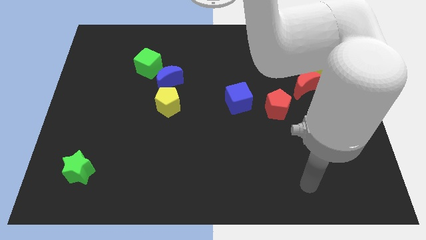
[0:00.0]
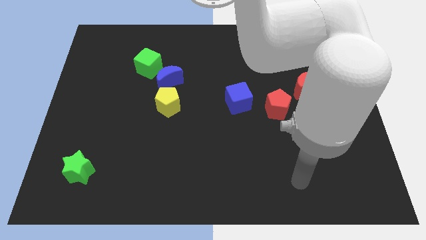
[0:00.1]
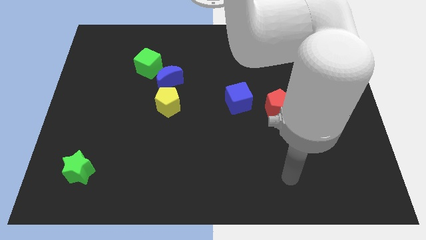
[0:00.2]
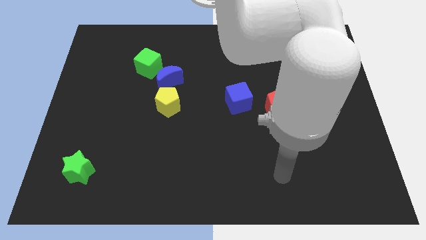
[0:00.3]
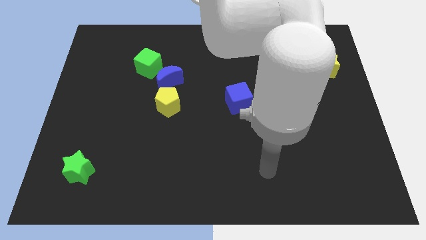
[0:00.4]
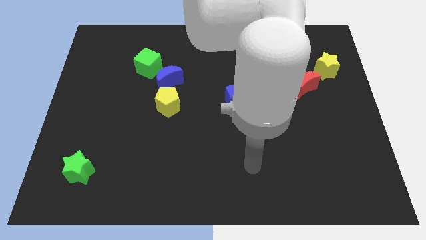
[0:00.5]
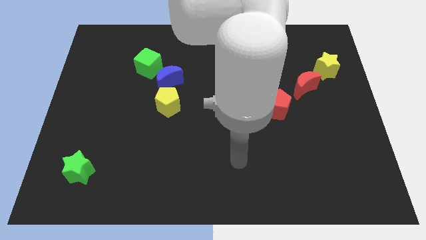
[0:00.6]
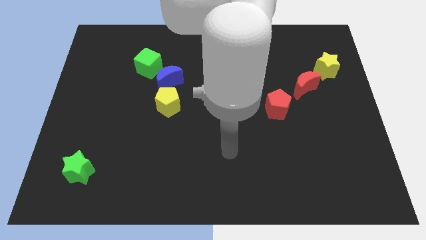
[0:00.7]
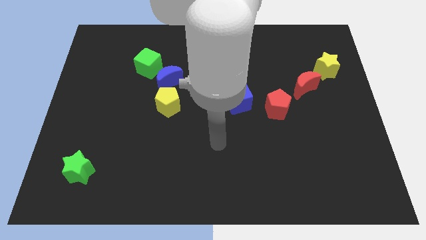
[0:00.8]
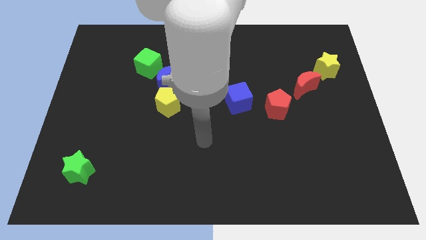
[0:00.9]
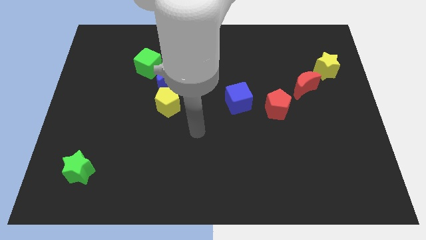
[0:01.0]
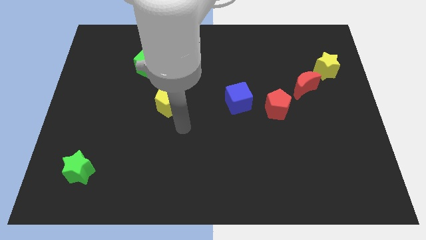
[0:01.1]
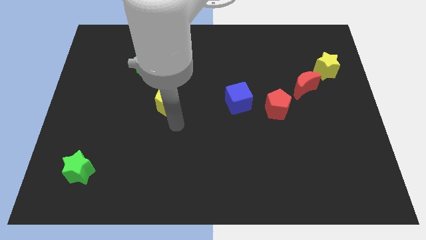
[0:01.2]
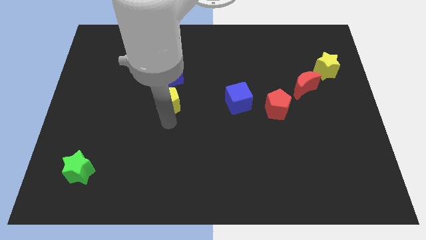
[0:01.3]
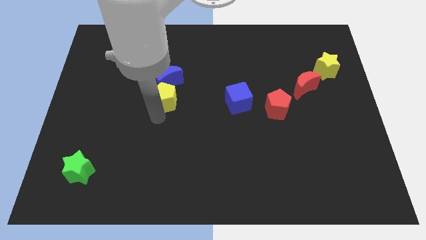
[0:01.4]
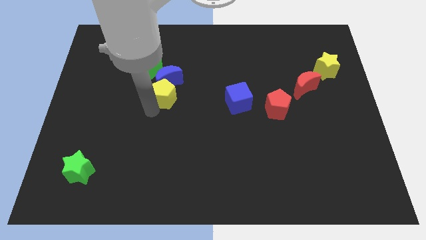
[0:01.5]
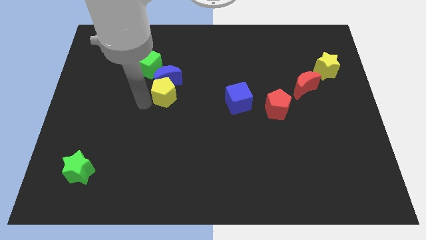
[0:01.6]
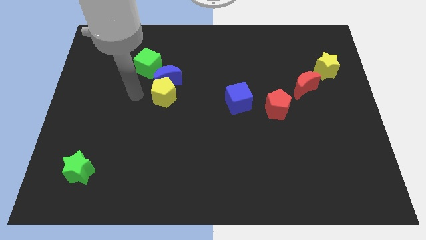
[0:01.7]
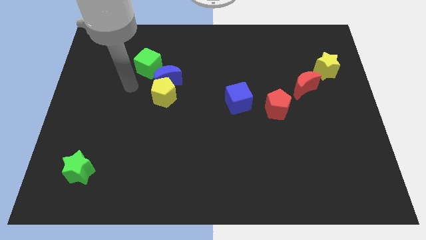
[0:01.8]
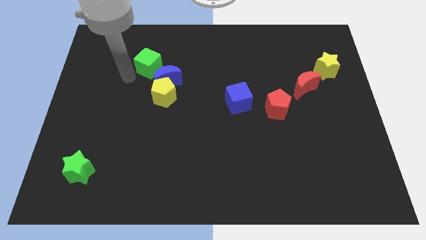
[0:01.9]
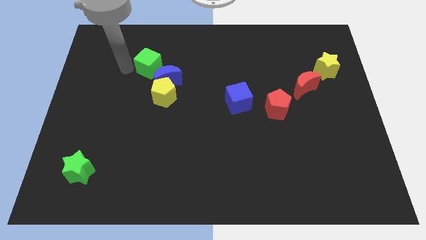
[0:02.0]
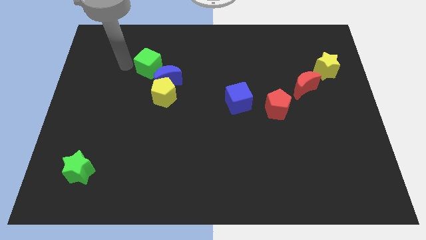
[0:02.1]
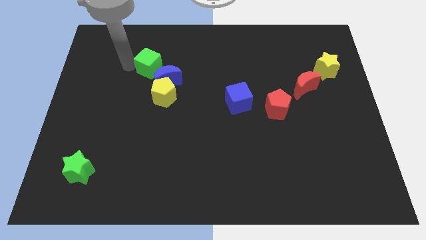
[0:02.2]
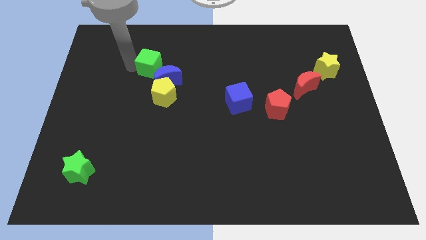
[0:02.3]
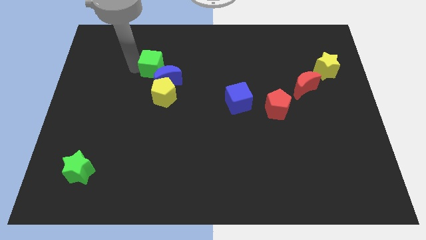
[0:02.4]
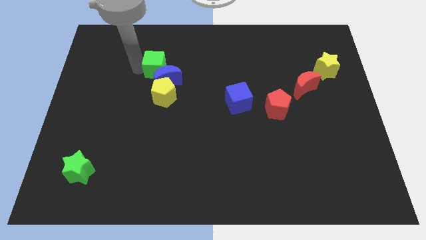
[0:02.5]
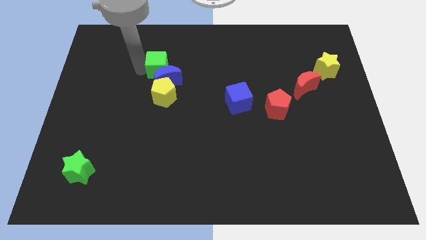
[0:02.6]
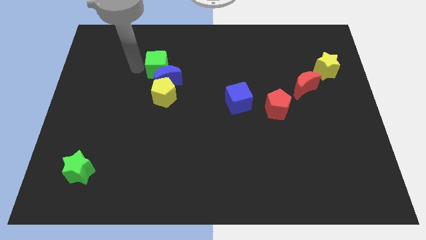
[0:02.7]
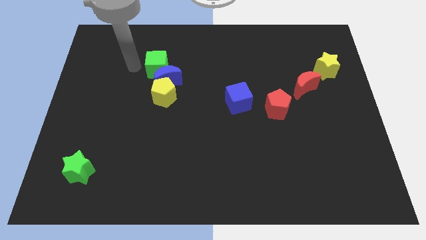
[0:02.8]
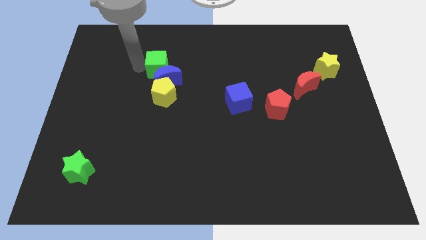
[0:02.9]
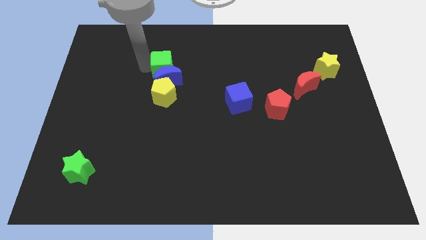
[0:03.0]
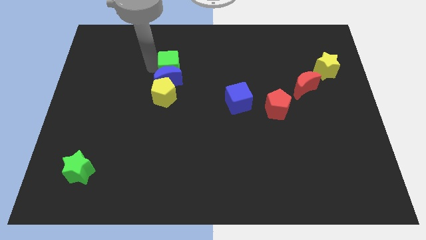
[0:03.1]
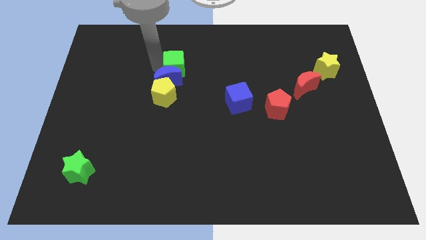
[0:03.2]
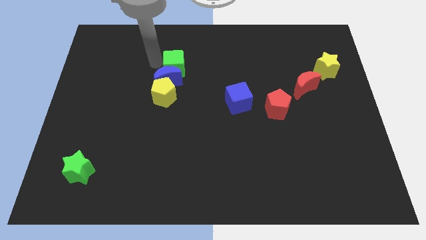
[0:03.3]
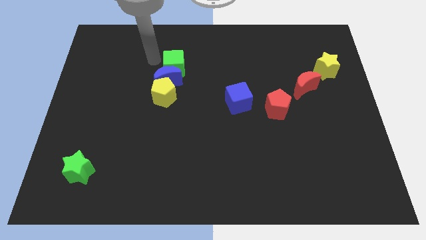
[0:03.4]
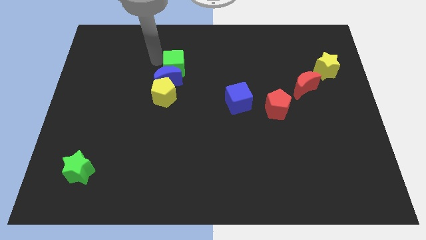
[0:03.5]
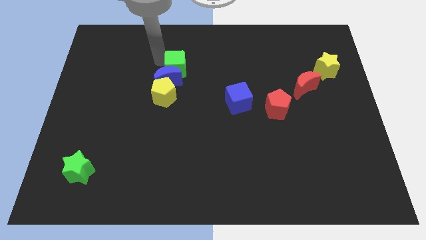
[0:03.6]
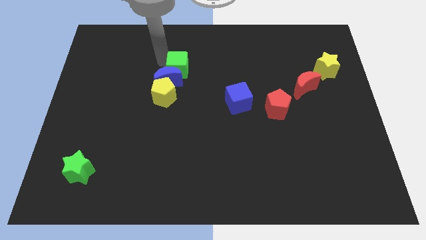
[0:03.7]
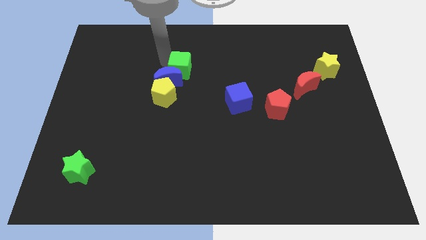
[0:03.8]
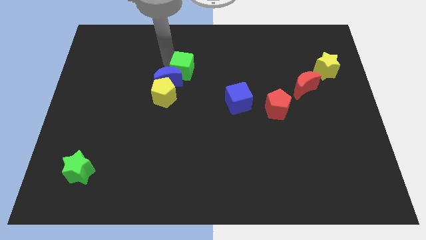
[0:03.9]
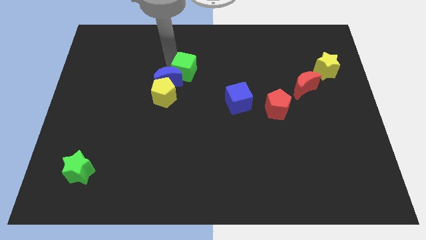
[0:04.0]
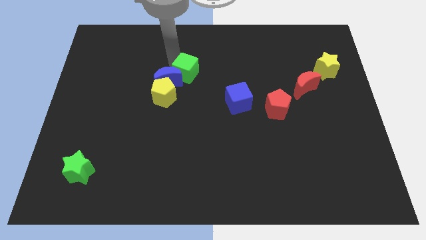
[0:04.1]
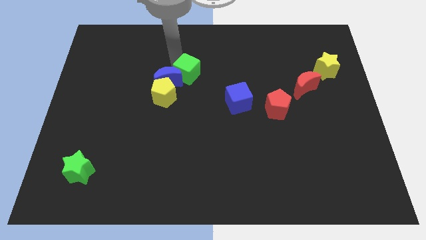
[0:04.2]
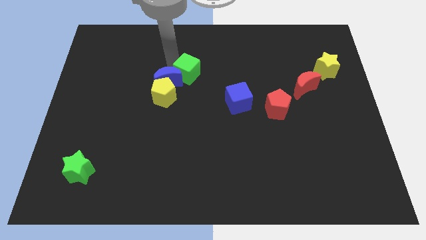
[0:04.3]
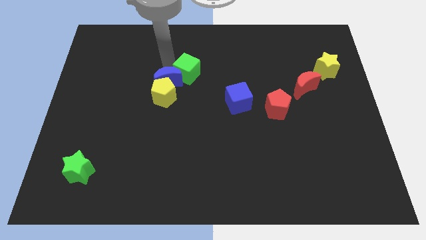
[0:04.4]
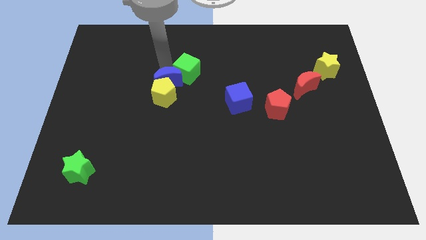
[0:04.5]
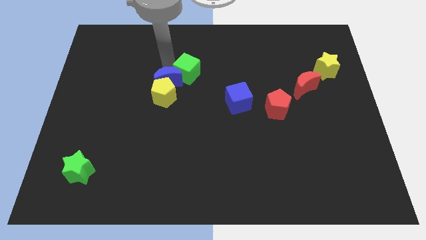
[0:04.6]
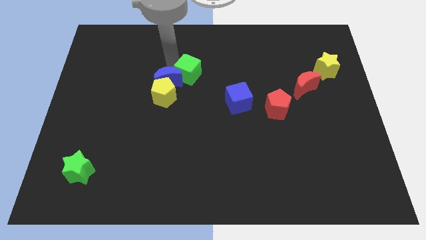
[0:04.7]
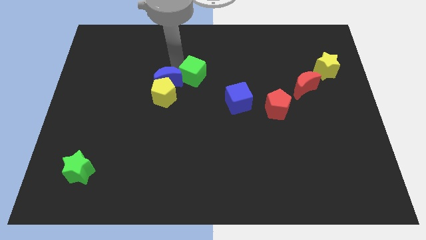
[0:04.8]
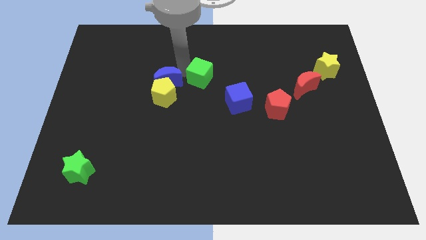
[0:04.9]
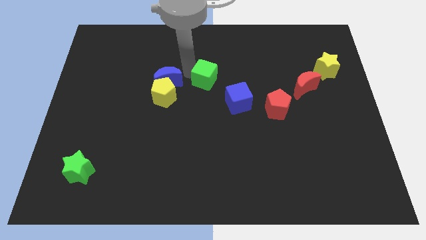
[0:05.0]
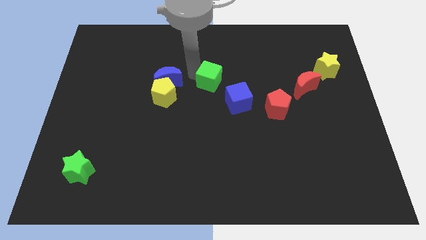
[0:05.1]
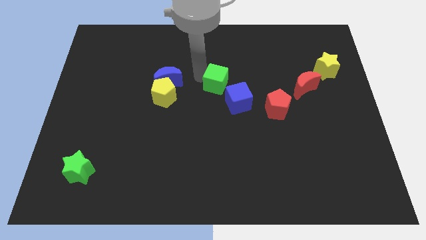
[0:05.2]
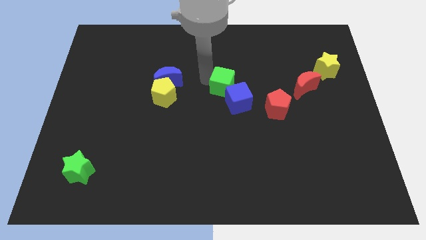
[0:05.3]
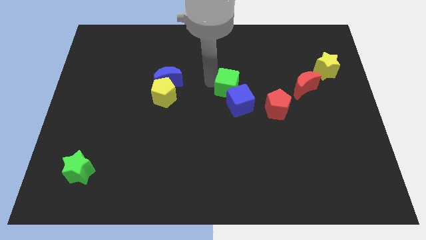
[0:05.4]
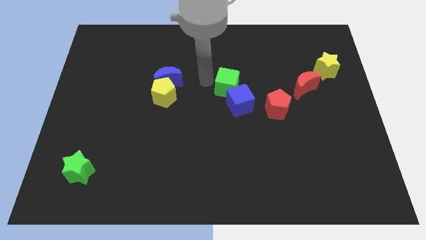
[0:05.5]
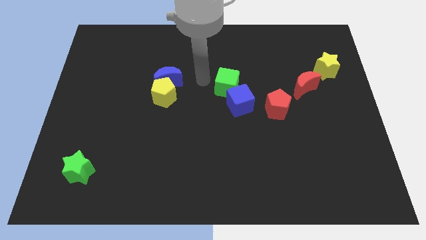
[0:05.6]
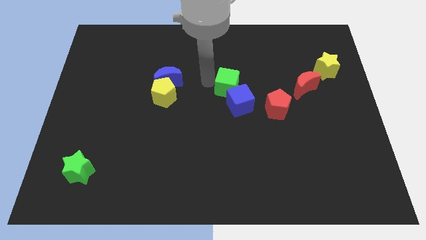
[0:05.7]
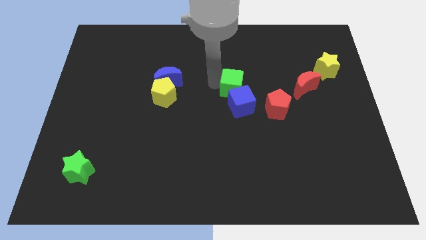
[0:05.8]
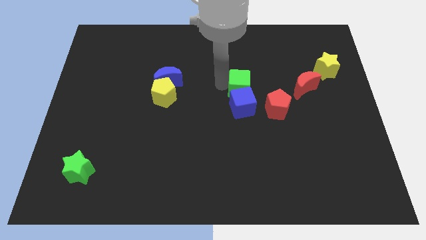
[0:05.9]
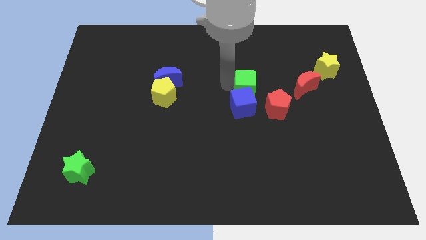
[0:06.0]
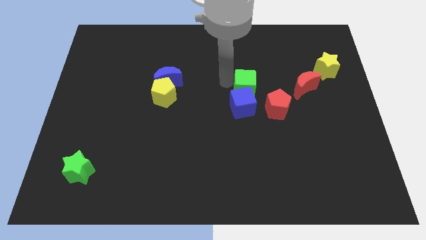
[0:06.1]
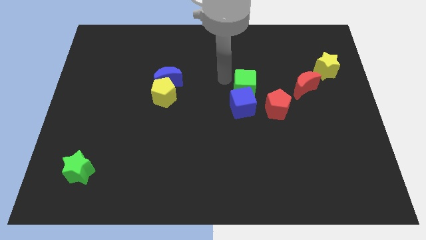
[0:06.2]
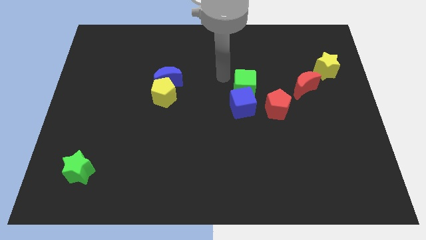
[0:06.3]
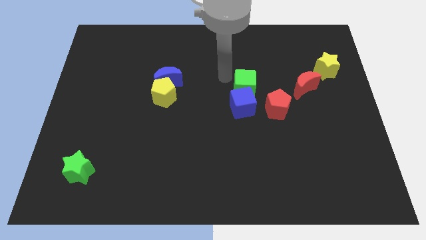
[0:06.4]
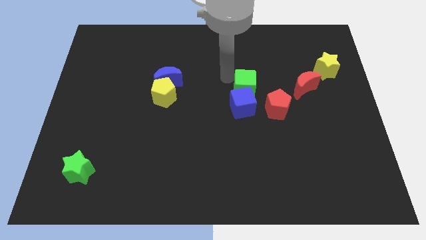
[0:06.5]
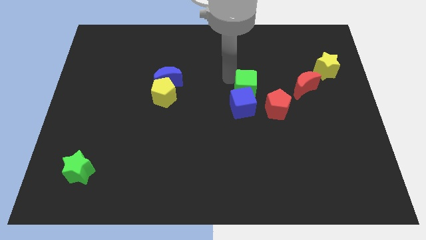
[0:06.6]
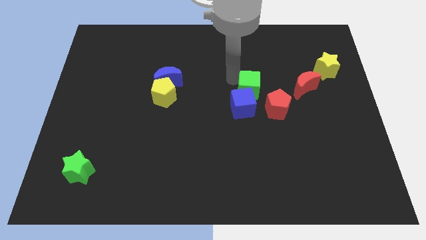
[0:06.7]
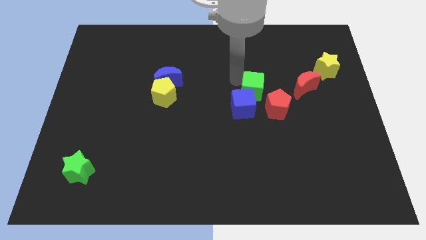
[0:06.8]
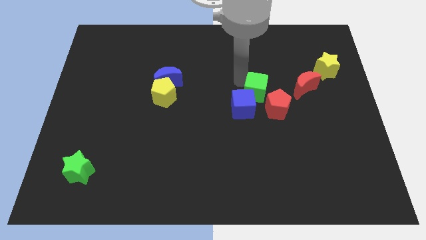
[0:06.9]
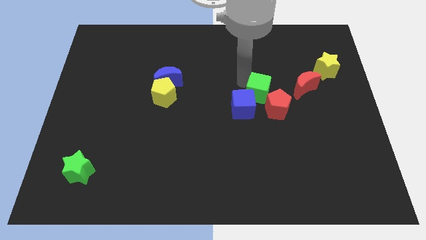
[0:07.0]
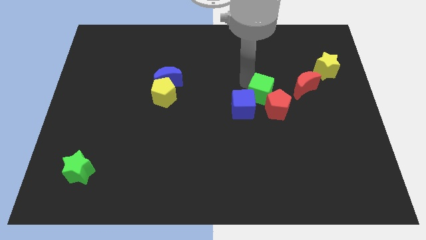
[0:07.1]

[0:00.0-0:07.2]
move the green cube to the red pentagon
